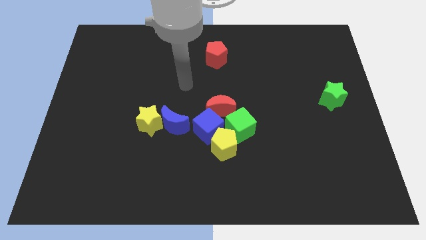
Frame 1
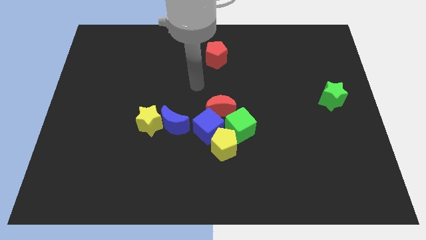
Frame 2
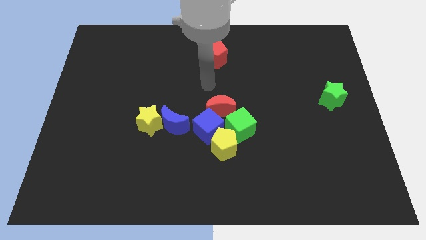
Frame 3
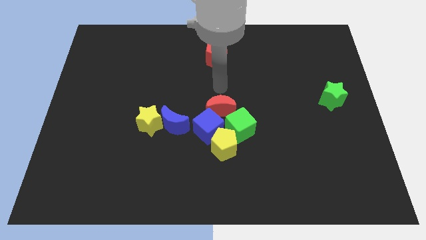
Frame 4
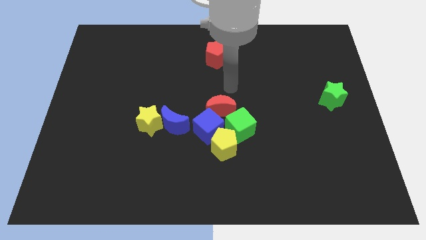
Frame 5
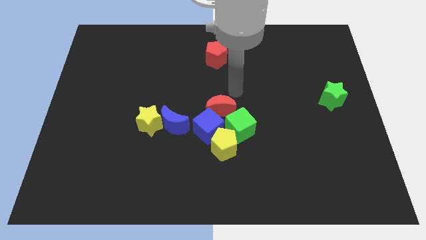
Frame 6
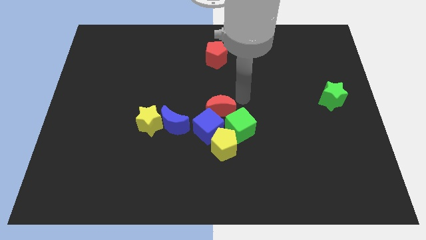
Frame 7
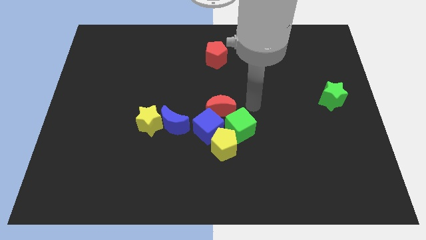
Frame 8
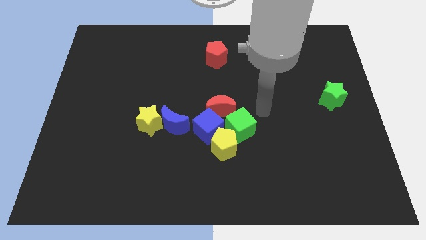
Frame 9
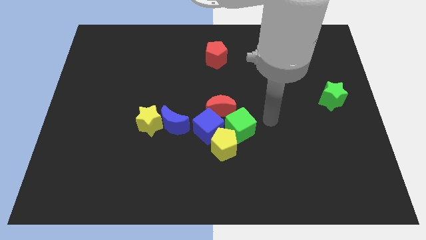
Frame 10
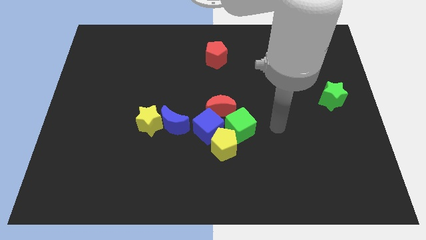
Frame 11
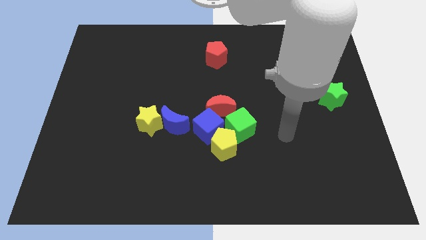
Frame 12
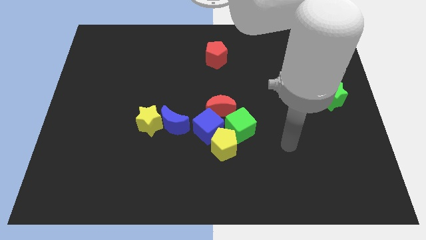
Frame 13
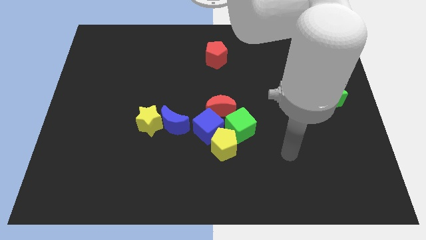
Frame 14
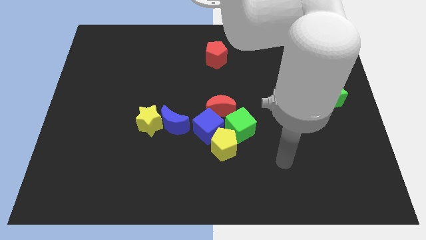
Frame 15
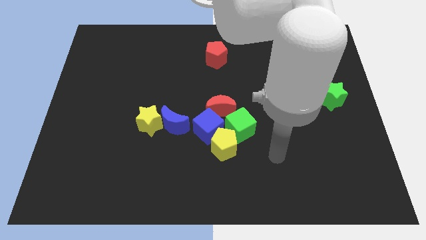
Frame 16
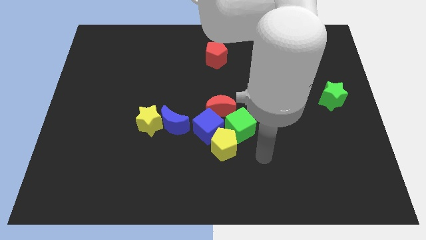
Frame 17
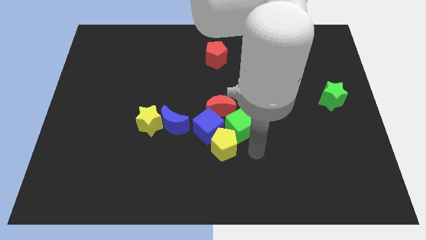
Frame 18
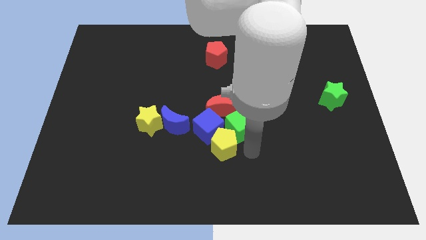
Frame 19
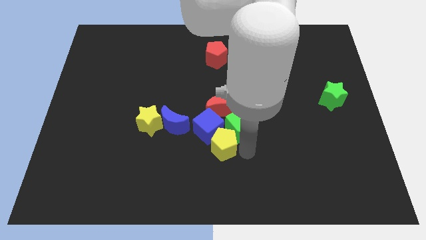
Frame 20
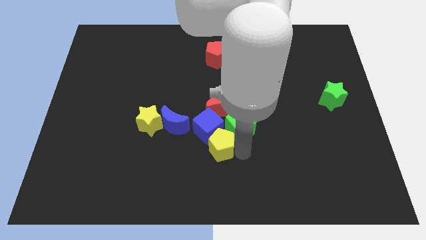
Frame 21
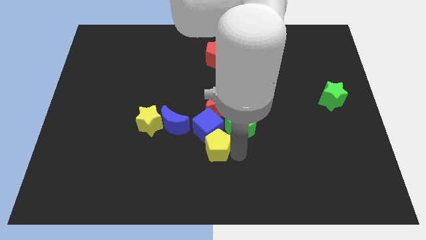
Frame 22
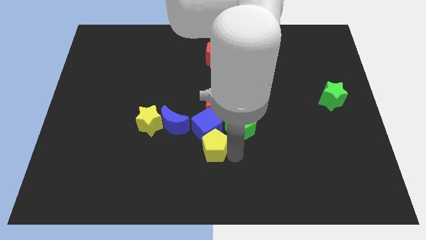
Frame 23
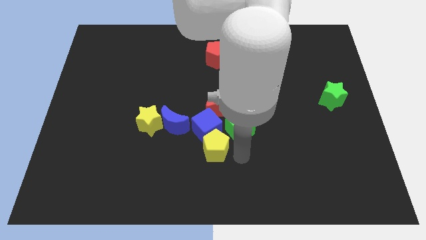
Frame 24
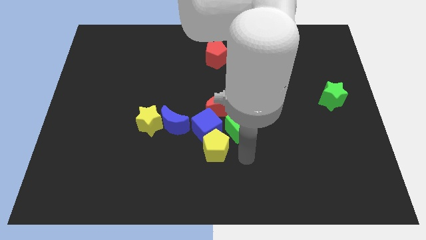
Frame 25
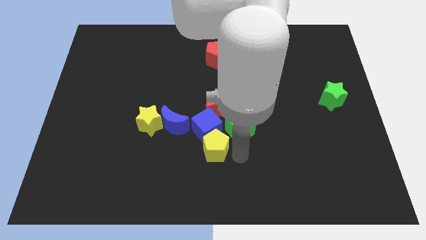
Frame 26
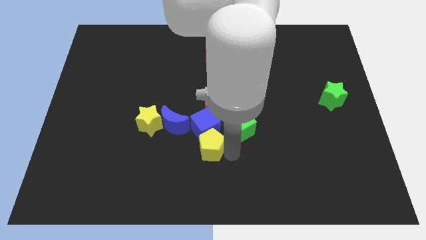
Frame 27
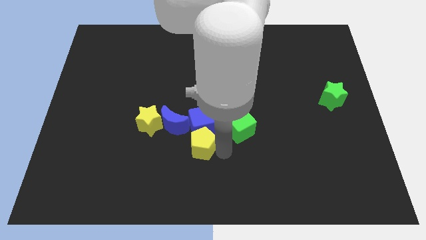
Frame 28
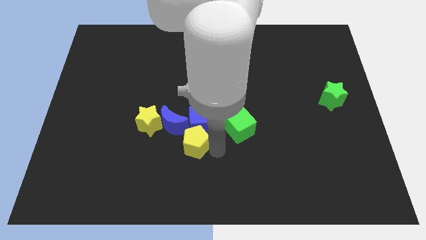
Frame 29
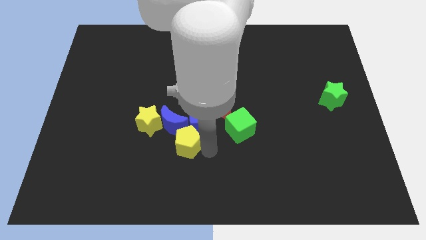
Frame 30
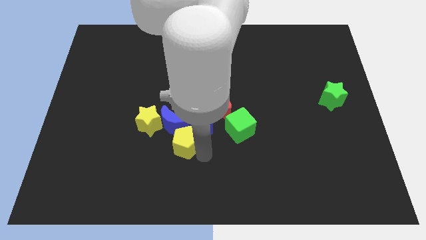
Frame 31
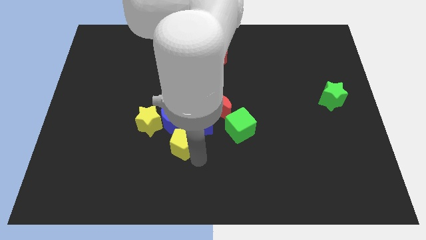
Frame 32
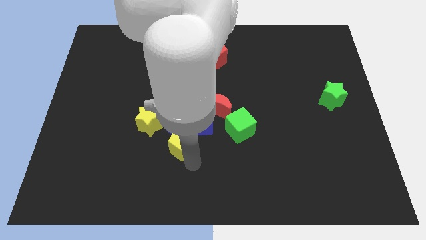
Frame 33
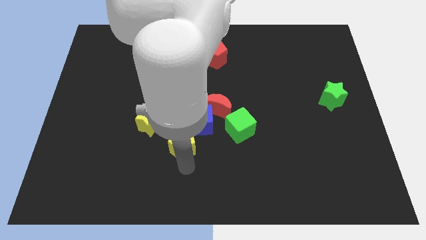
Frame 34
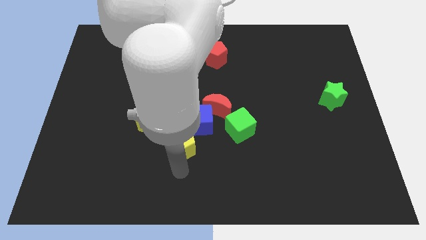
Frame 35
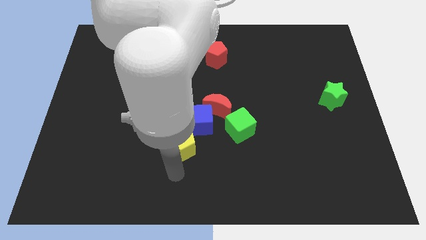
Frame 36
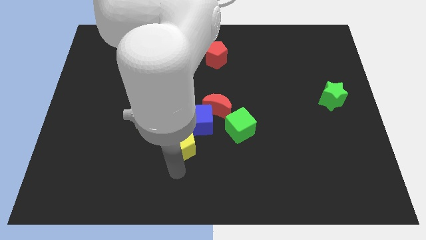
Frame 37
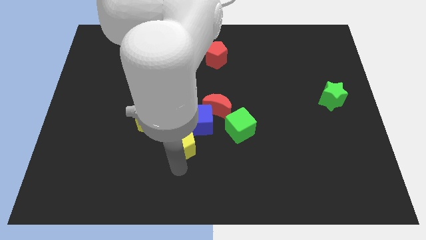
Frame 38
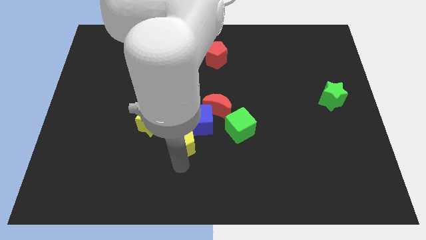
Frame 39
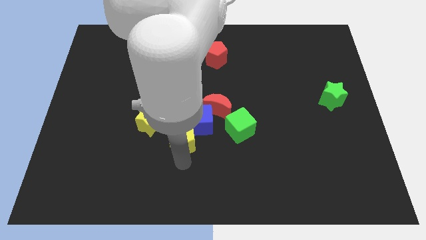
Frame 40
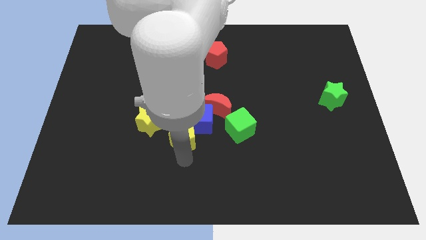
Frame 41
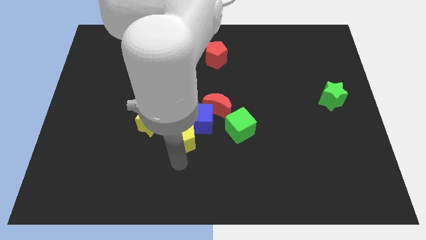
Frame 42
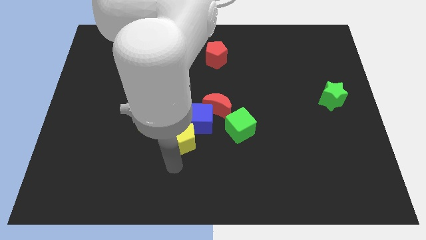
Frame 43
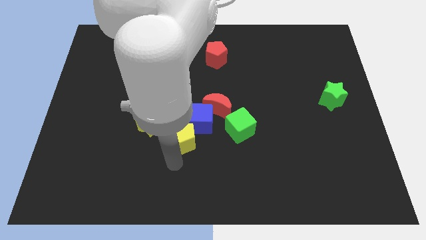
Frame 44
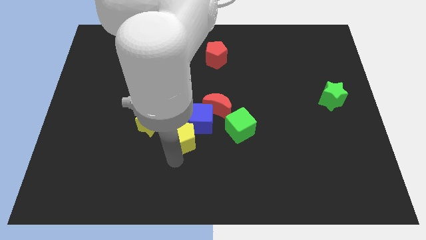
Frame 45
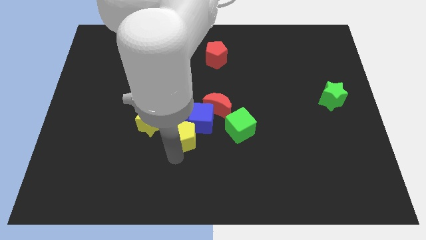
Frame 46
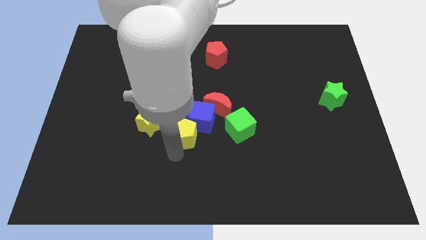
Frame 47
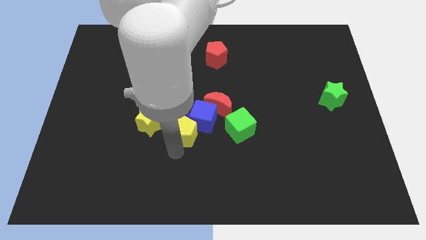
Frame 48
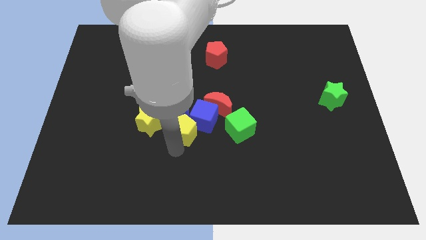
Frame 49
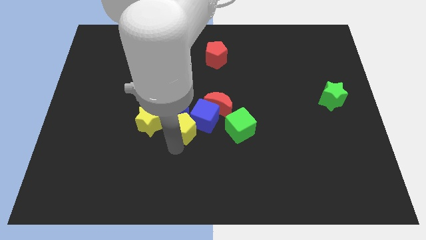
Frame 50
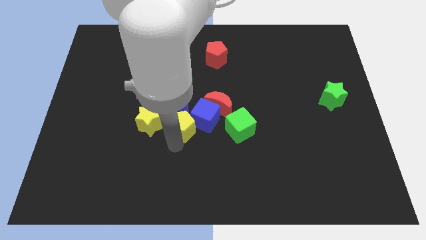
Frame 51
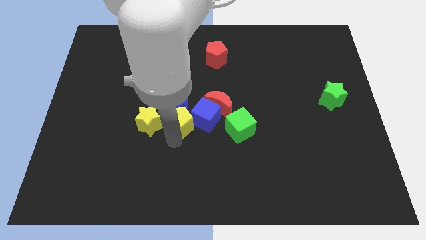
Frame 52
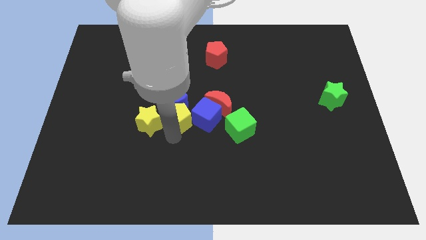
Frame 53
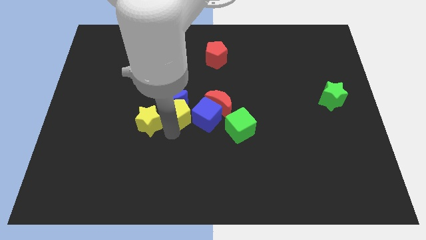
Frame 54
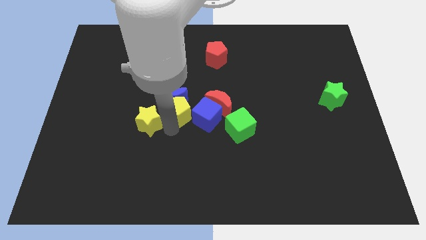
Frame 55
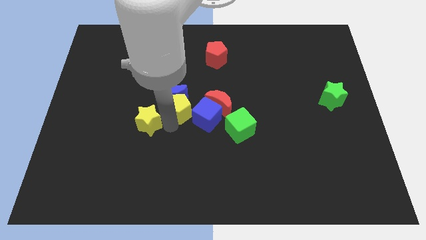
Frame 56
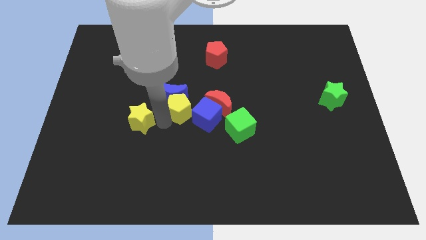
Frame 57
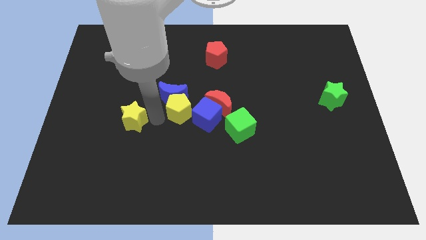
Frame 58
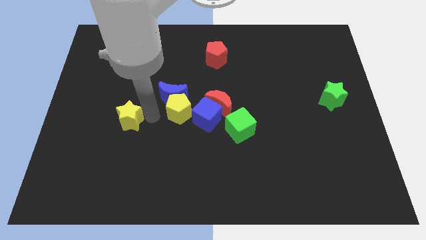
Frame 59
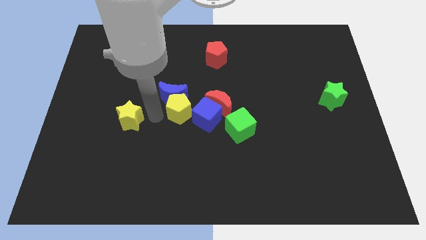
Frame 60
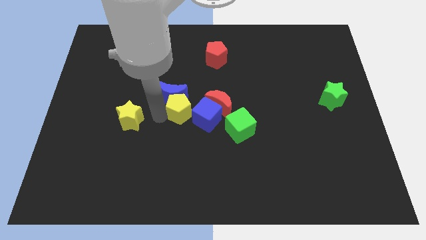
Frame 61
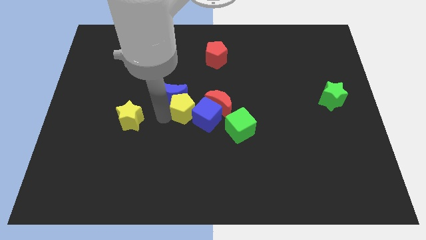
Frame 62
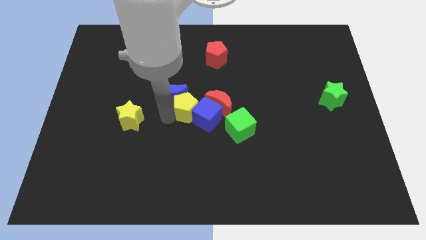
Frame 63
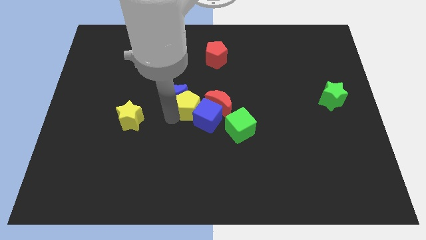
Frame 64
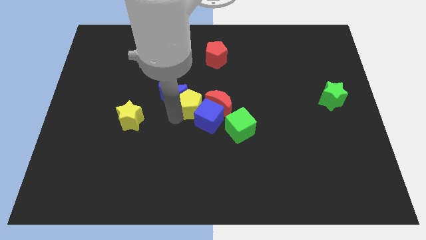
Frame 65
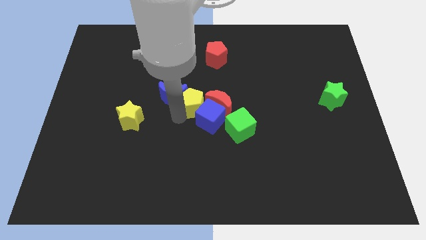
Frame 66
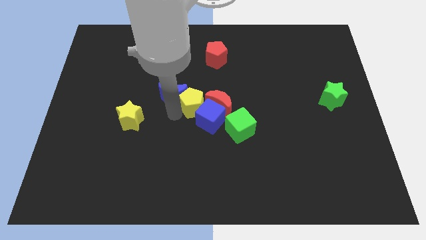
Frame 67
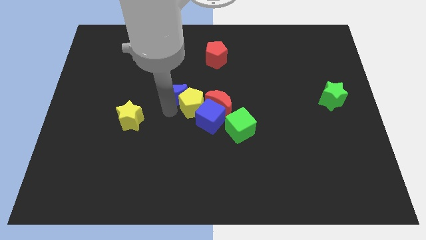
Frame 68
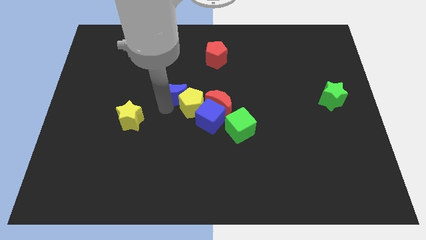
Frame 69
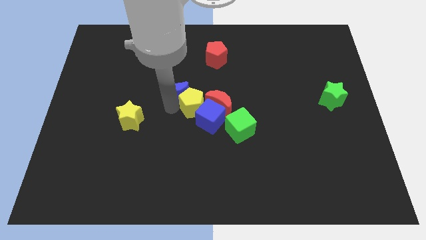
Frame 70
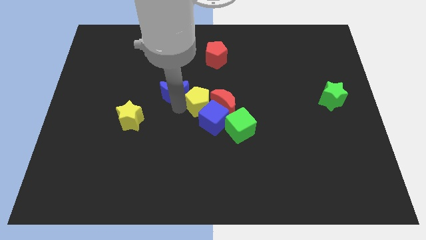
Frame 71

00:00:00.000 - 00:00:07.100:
put the yellow pentagon towards the red moon

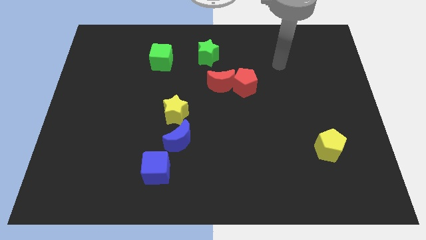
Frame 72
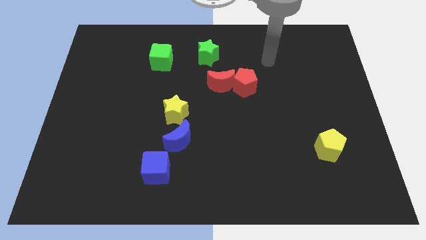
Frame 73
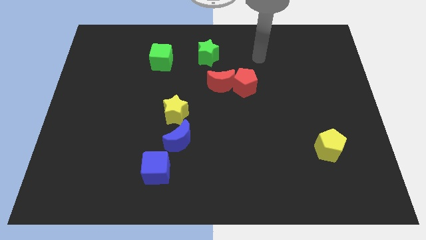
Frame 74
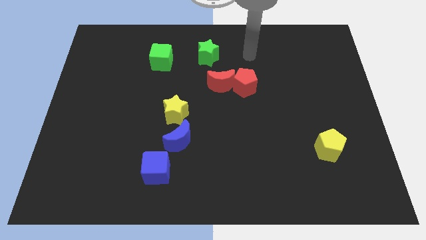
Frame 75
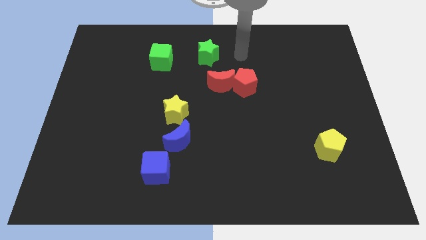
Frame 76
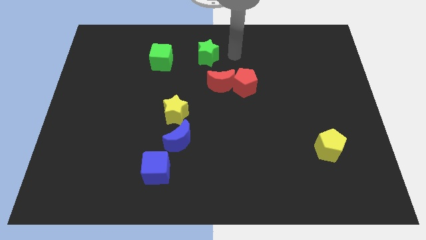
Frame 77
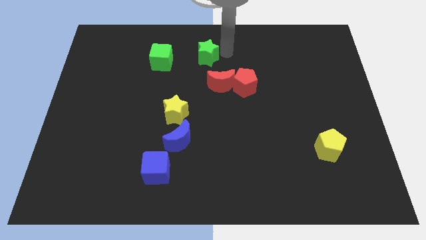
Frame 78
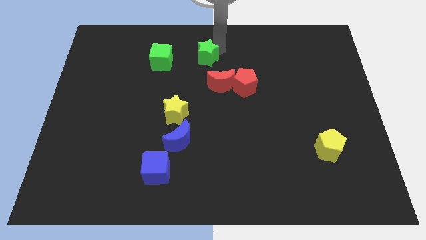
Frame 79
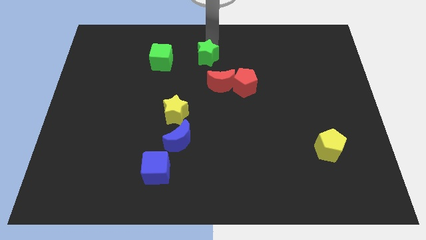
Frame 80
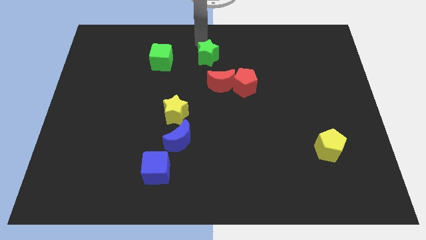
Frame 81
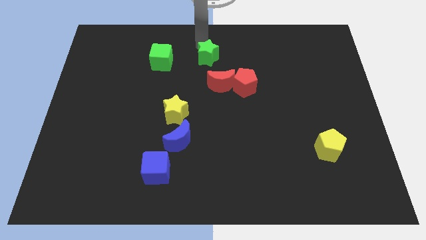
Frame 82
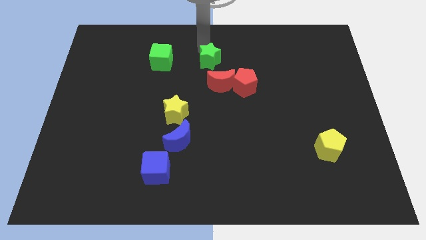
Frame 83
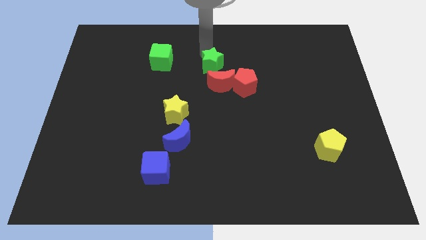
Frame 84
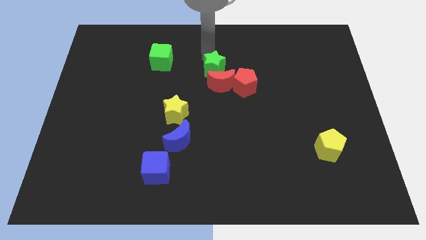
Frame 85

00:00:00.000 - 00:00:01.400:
slide the green star towards the red moon
